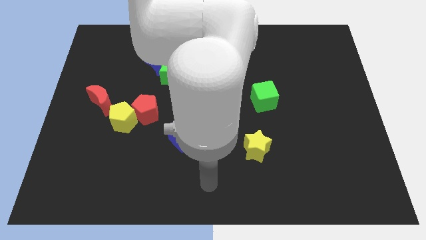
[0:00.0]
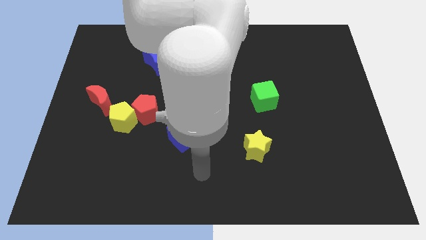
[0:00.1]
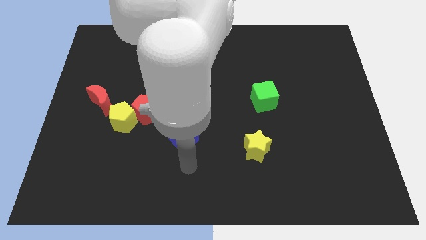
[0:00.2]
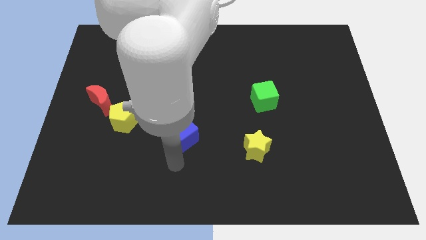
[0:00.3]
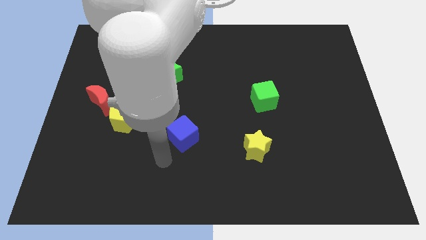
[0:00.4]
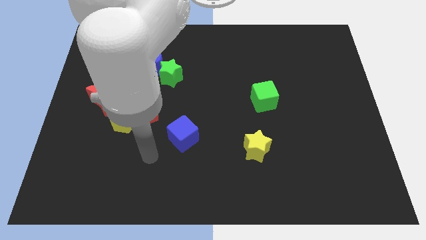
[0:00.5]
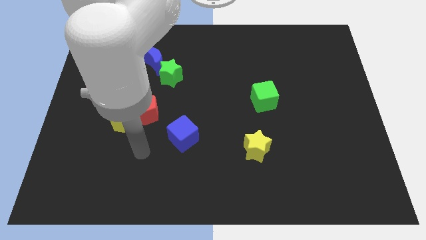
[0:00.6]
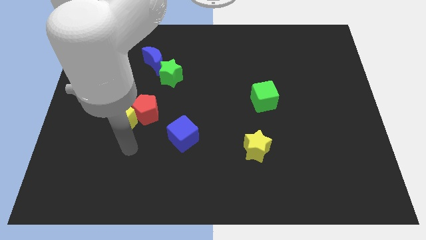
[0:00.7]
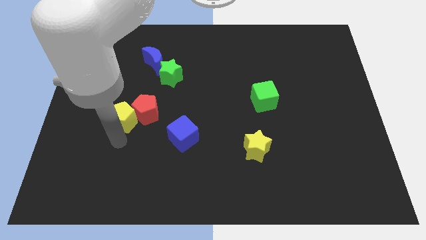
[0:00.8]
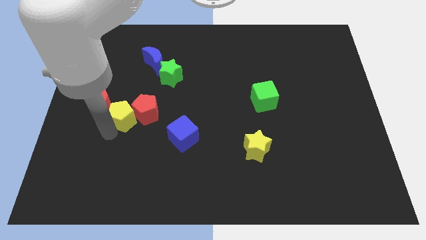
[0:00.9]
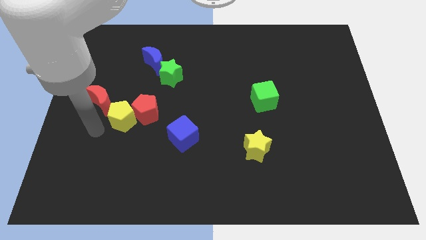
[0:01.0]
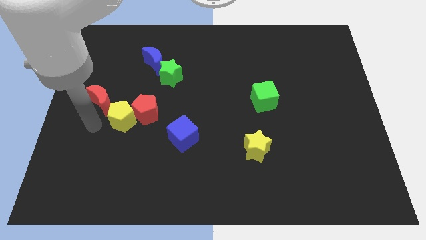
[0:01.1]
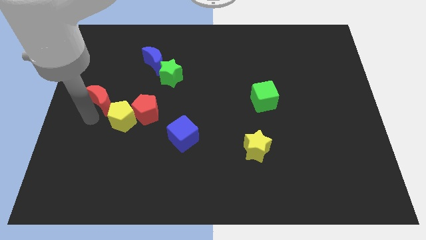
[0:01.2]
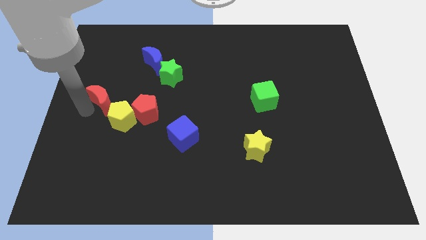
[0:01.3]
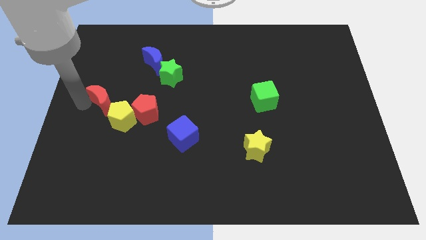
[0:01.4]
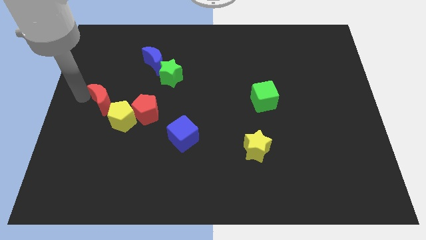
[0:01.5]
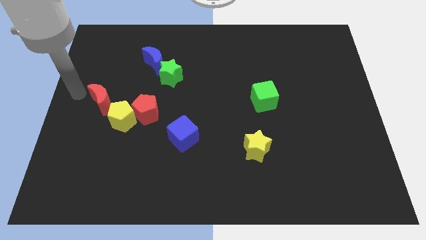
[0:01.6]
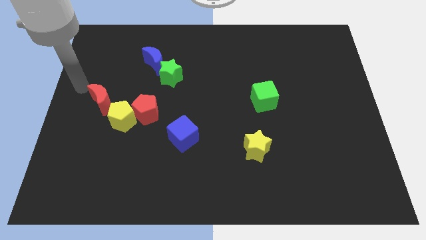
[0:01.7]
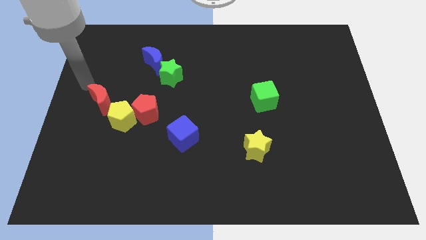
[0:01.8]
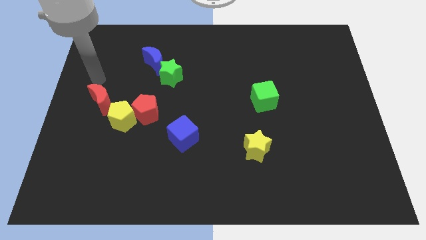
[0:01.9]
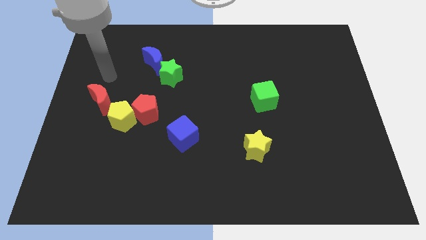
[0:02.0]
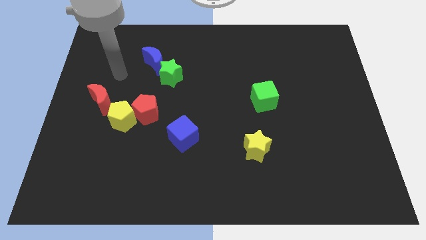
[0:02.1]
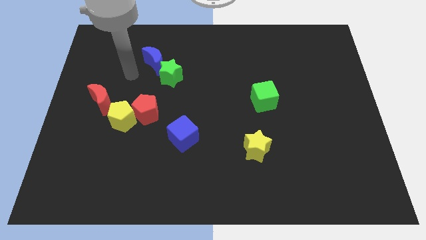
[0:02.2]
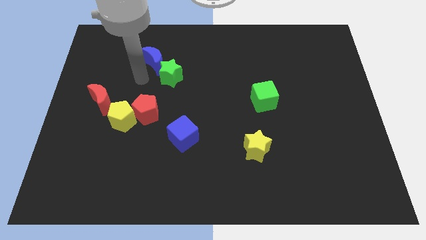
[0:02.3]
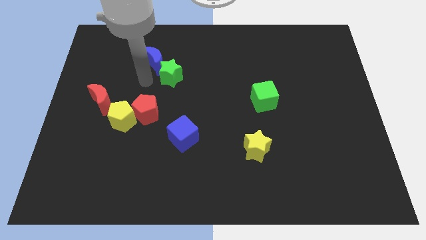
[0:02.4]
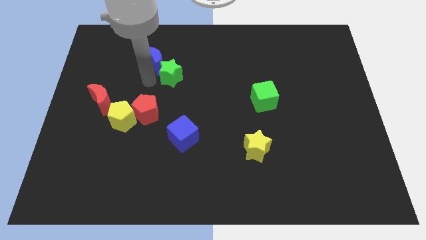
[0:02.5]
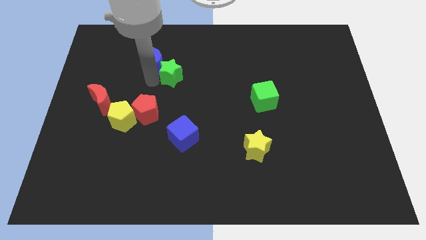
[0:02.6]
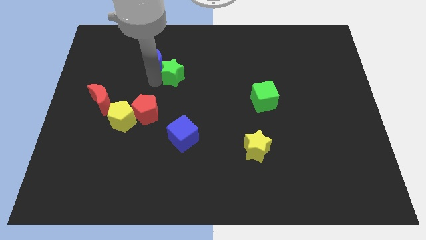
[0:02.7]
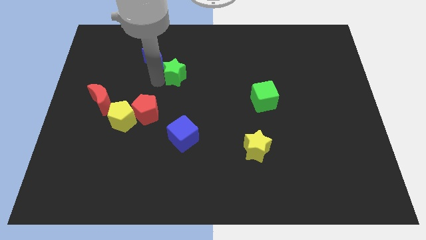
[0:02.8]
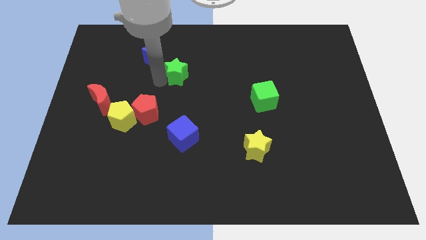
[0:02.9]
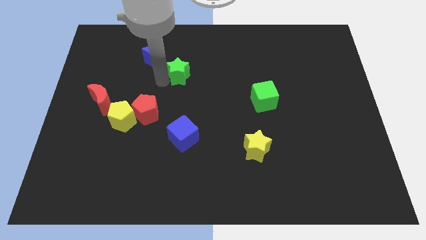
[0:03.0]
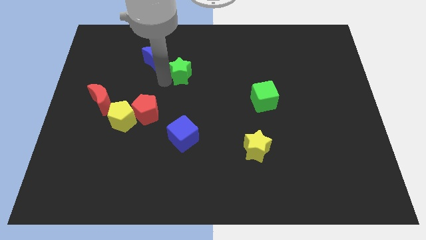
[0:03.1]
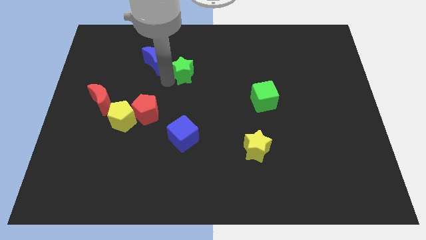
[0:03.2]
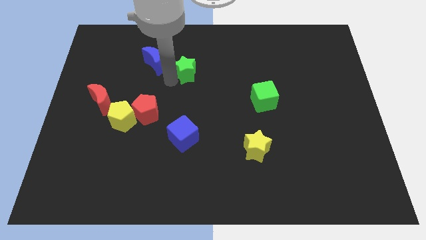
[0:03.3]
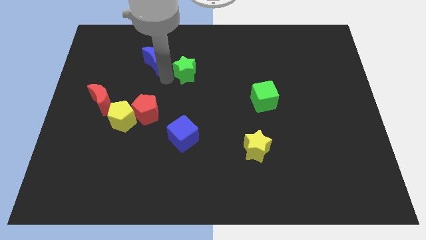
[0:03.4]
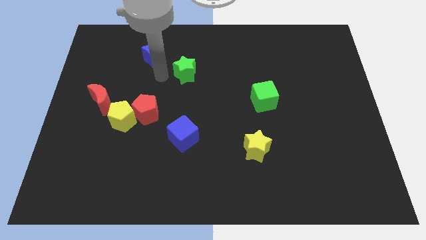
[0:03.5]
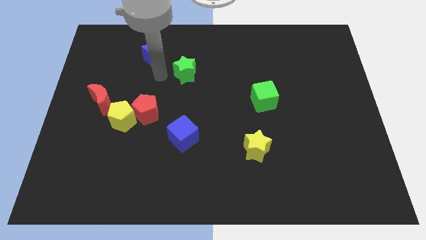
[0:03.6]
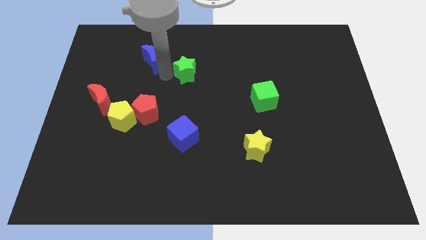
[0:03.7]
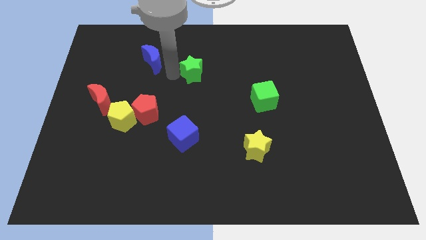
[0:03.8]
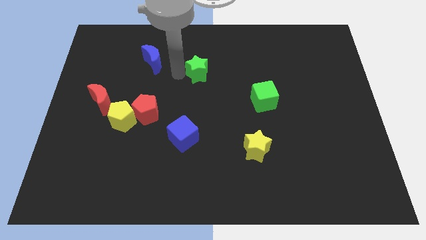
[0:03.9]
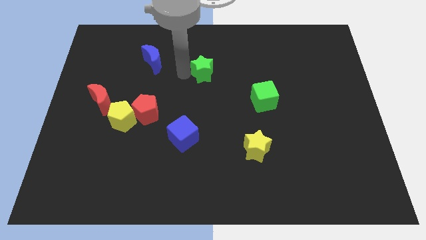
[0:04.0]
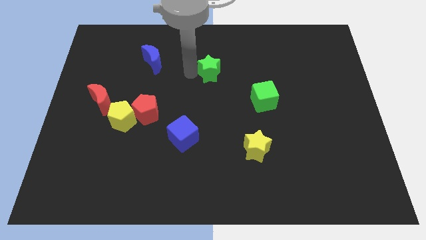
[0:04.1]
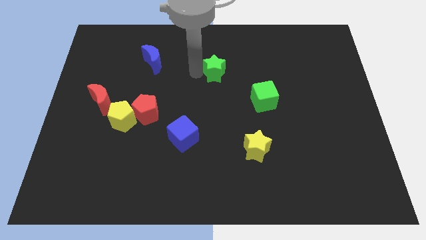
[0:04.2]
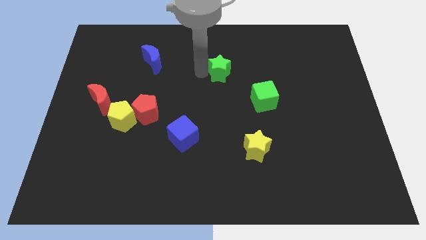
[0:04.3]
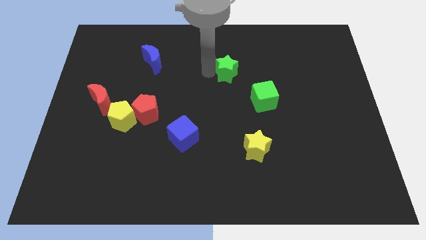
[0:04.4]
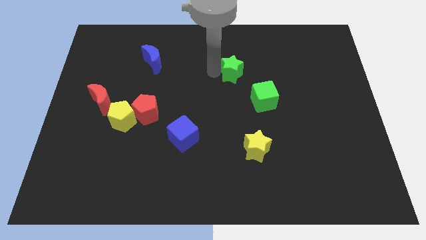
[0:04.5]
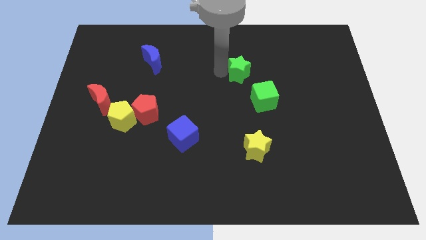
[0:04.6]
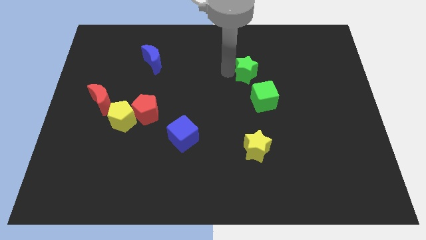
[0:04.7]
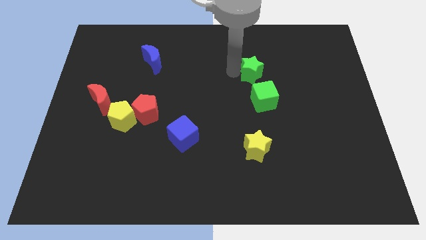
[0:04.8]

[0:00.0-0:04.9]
move the green star right

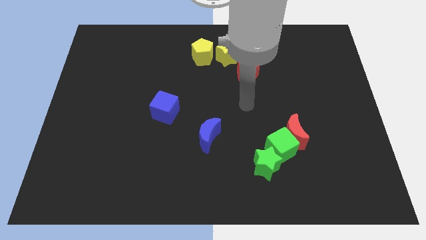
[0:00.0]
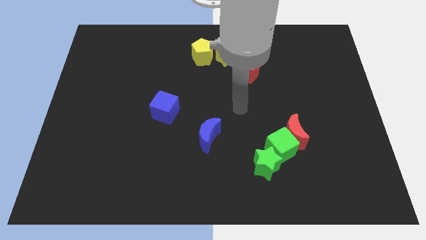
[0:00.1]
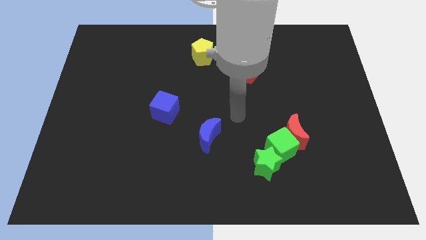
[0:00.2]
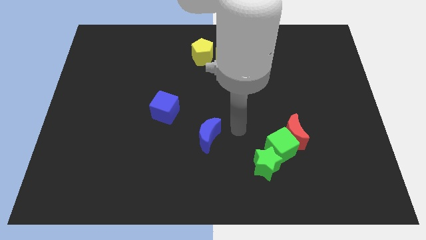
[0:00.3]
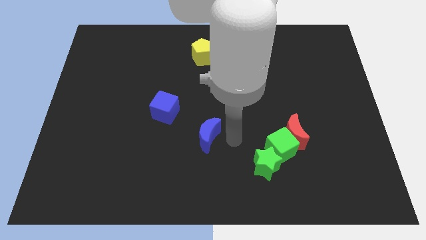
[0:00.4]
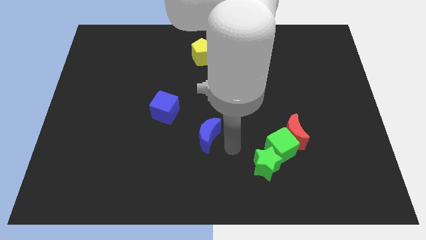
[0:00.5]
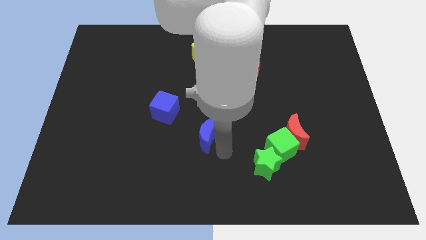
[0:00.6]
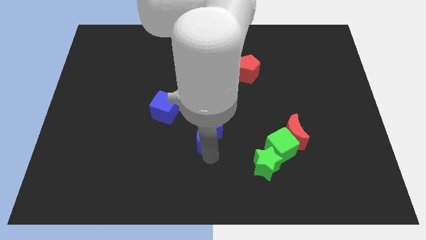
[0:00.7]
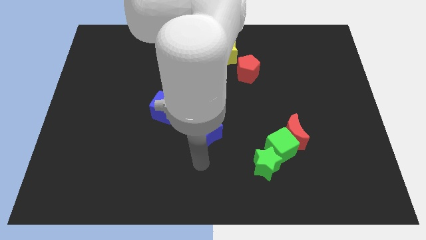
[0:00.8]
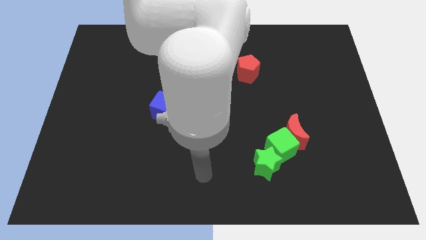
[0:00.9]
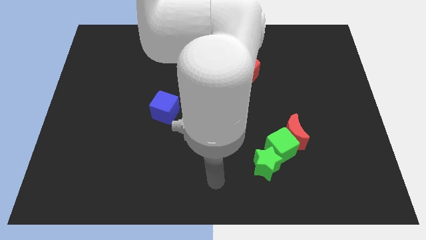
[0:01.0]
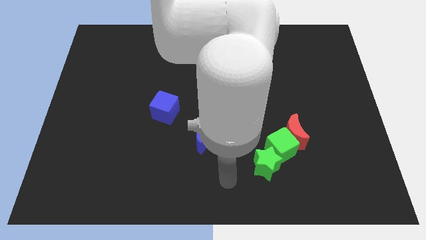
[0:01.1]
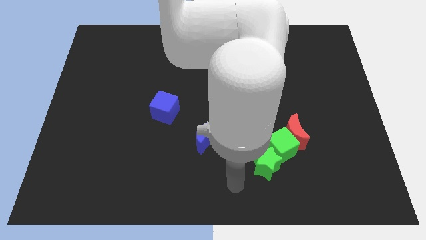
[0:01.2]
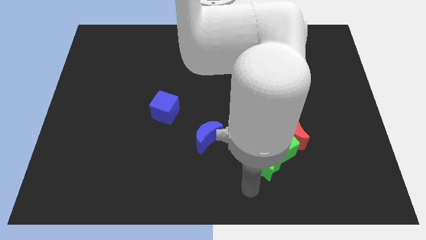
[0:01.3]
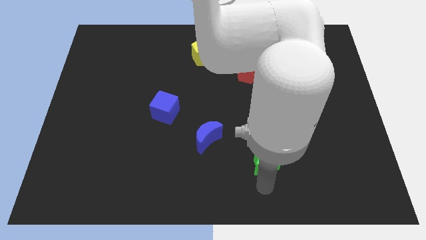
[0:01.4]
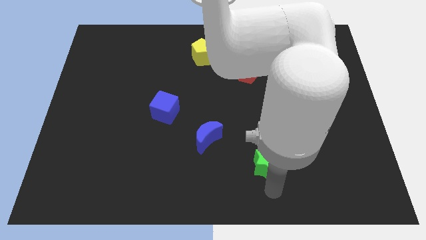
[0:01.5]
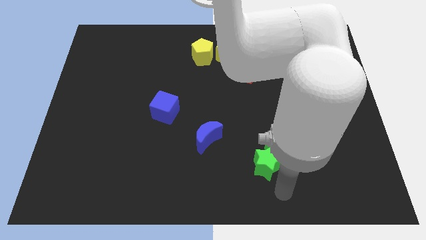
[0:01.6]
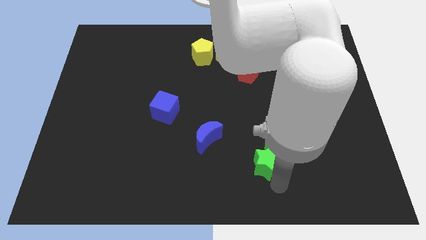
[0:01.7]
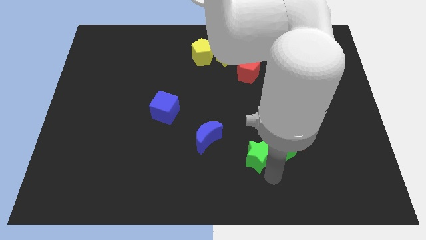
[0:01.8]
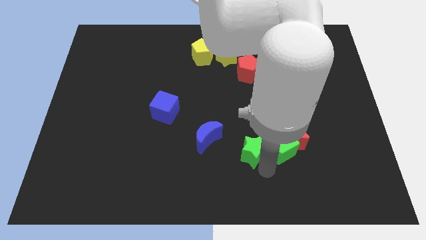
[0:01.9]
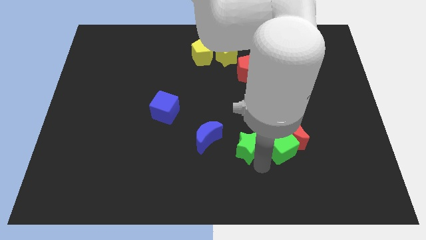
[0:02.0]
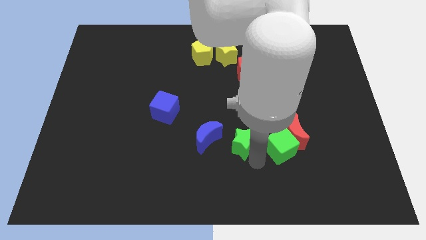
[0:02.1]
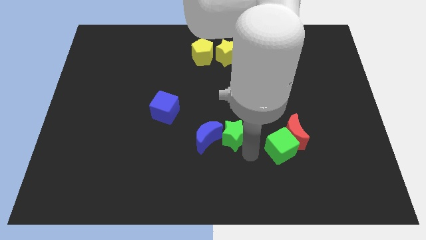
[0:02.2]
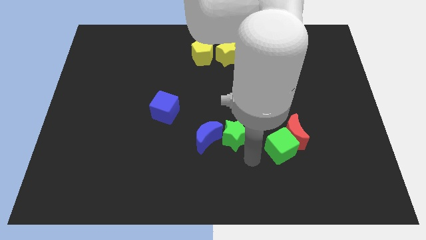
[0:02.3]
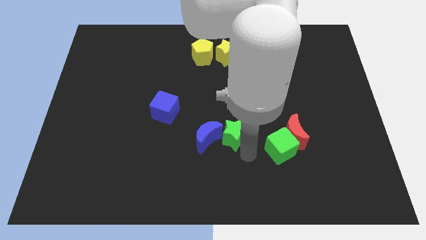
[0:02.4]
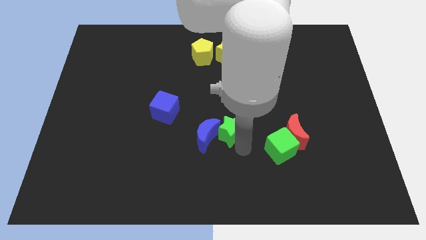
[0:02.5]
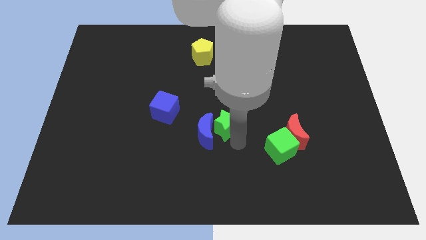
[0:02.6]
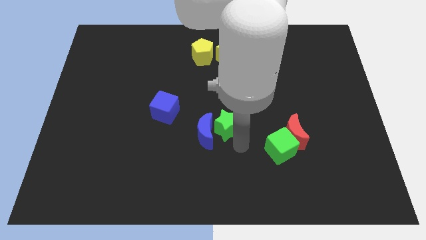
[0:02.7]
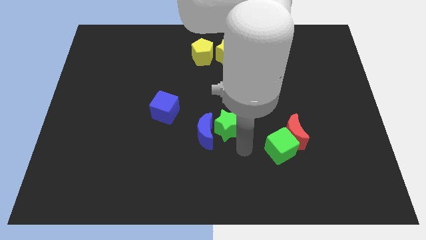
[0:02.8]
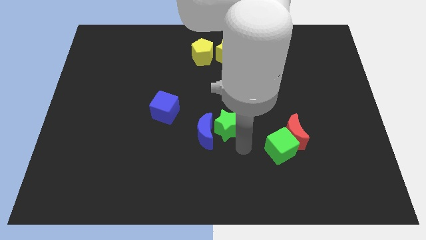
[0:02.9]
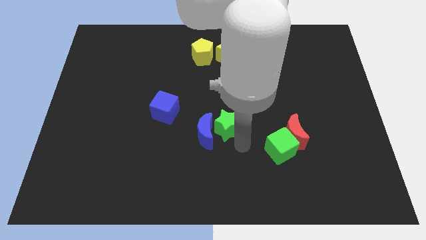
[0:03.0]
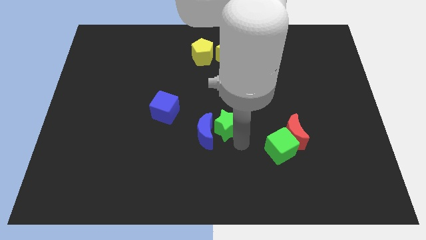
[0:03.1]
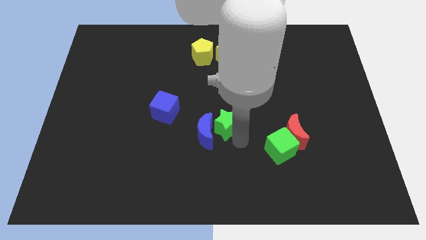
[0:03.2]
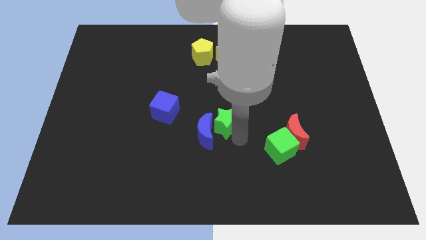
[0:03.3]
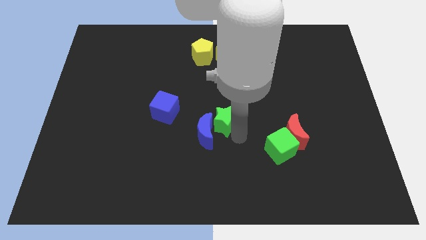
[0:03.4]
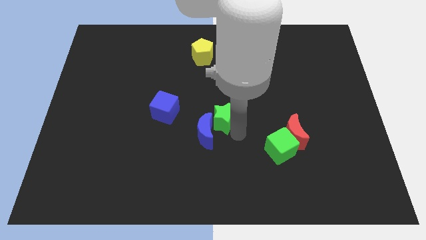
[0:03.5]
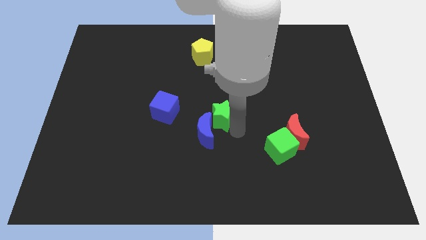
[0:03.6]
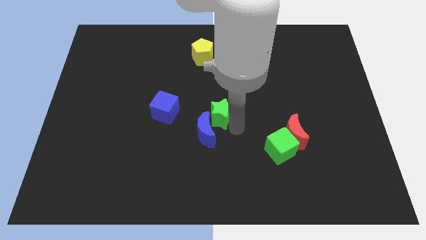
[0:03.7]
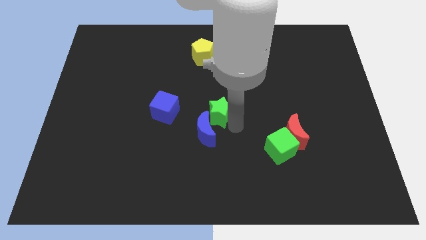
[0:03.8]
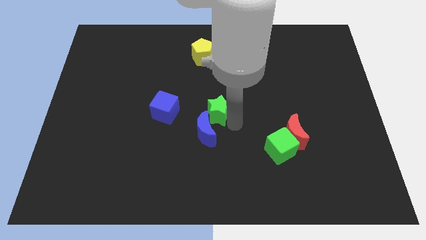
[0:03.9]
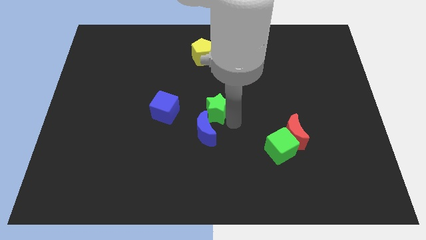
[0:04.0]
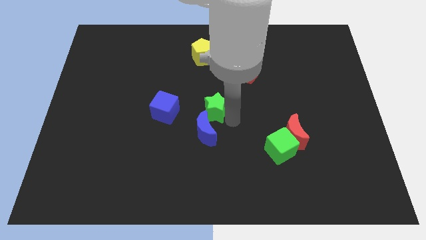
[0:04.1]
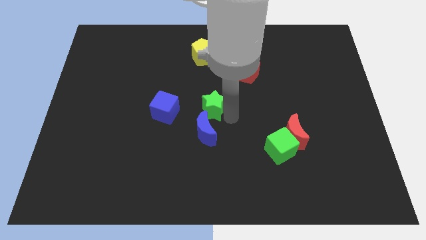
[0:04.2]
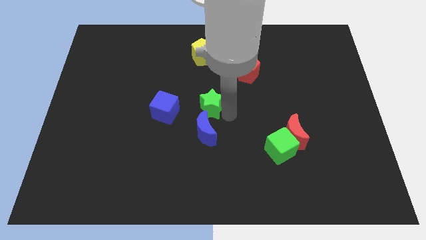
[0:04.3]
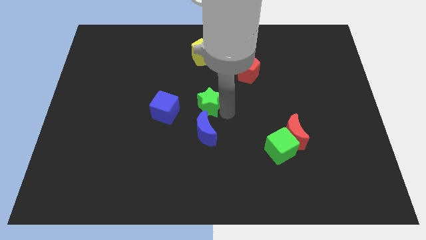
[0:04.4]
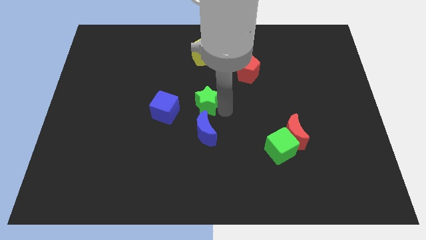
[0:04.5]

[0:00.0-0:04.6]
move the green star upwards and left
